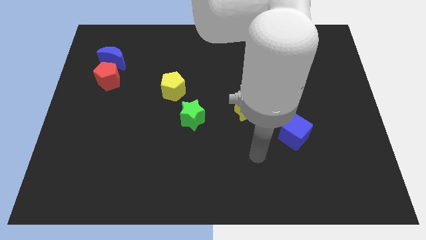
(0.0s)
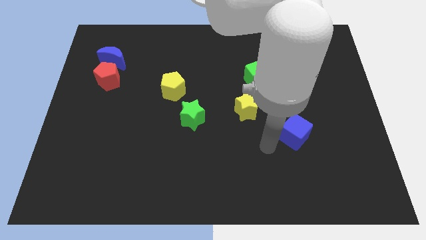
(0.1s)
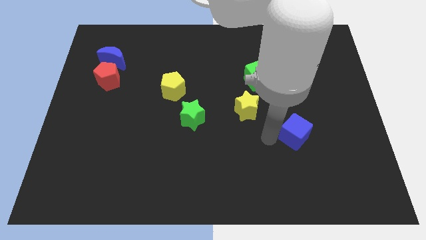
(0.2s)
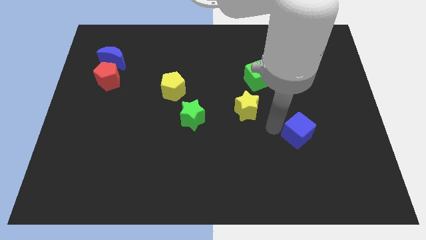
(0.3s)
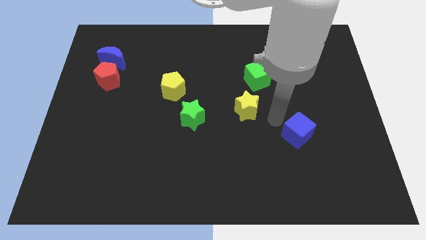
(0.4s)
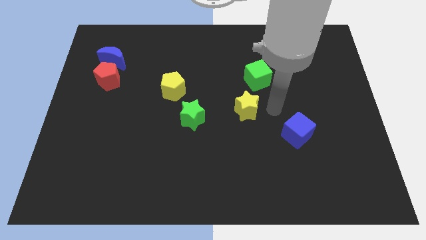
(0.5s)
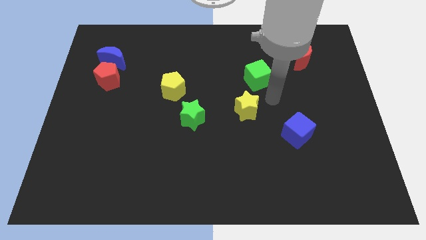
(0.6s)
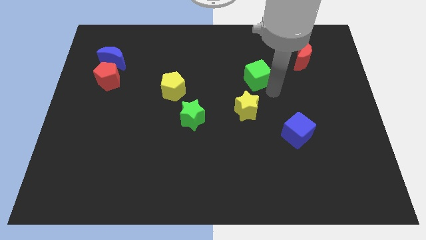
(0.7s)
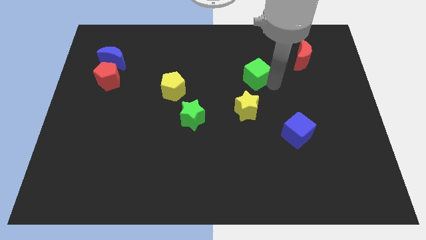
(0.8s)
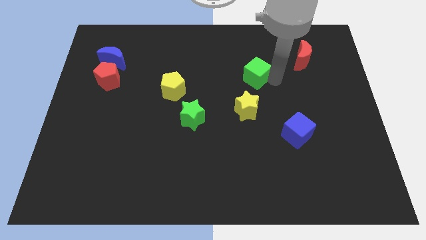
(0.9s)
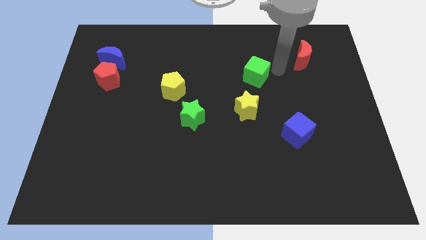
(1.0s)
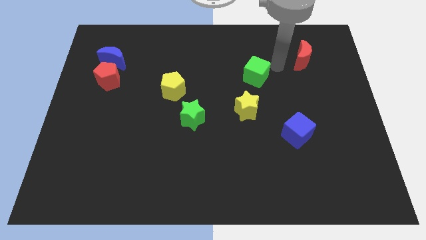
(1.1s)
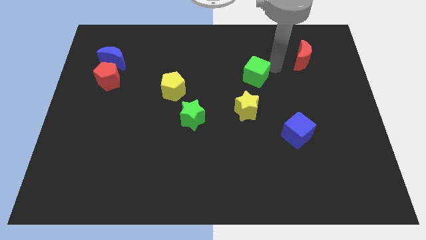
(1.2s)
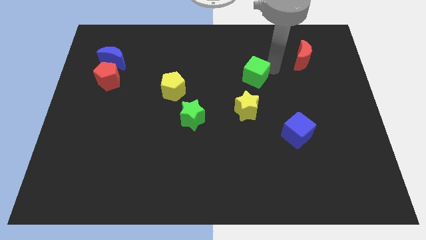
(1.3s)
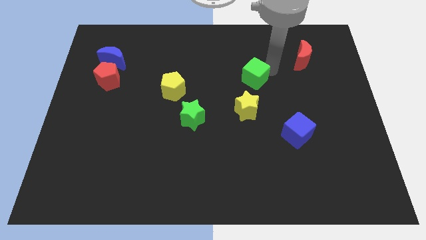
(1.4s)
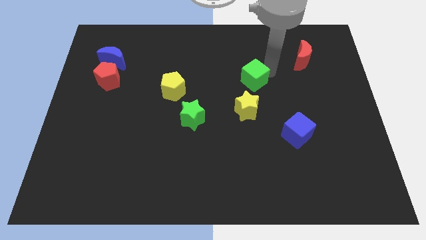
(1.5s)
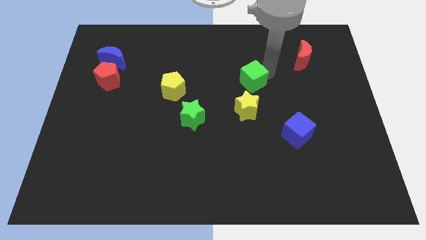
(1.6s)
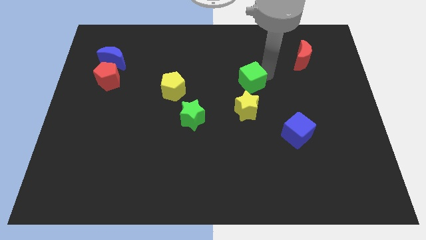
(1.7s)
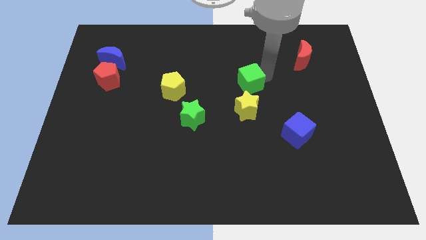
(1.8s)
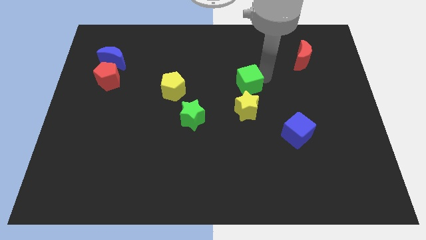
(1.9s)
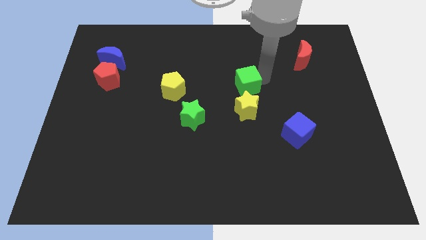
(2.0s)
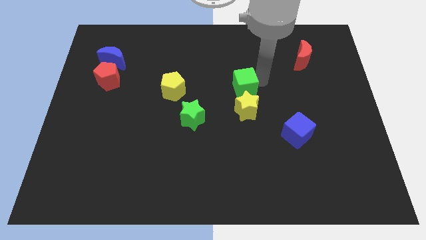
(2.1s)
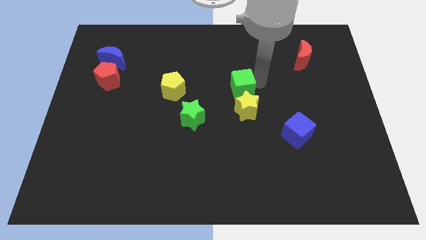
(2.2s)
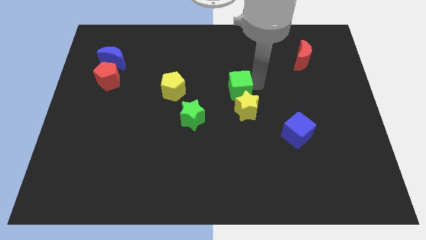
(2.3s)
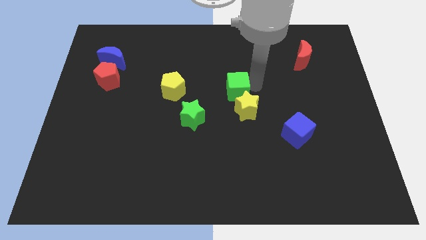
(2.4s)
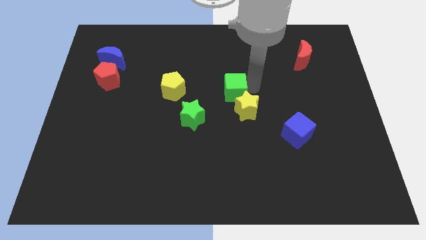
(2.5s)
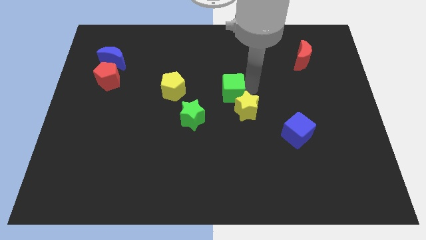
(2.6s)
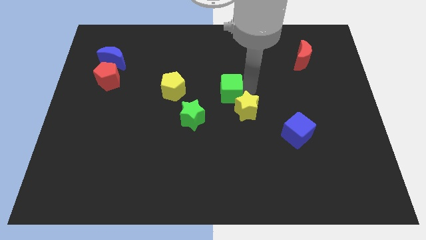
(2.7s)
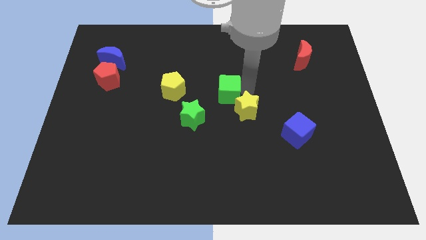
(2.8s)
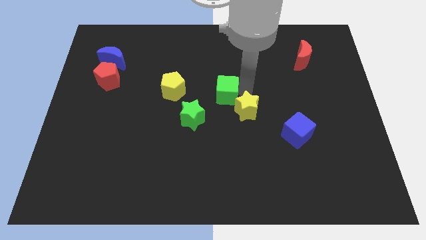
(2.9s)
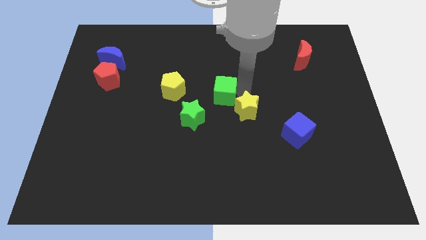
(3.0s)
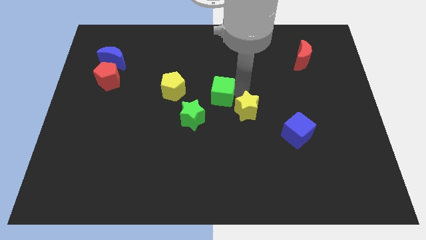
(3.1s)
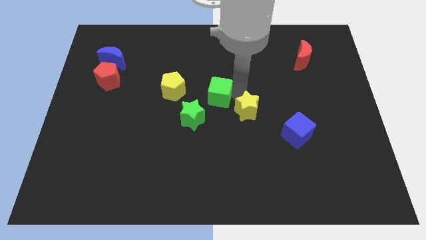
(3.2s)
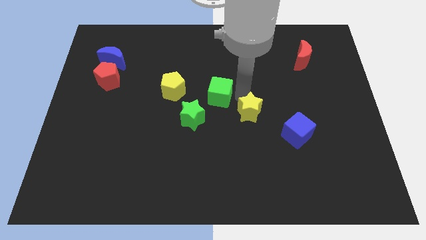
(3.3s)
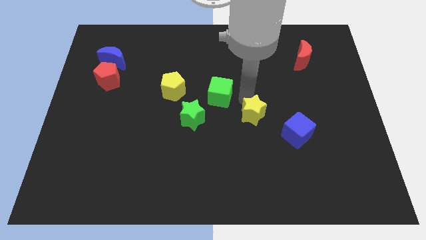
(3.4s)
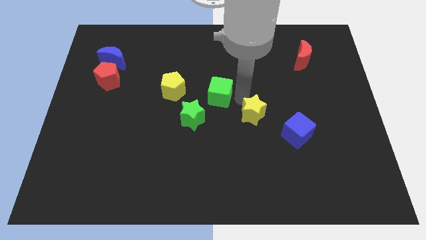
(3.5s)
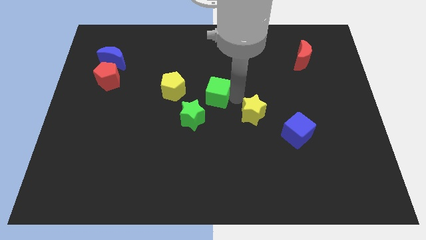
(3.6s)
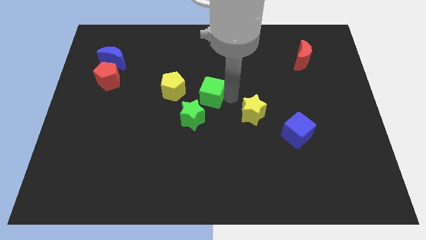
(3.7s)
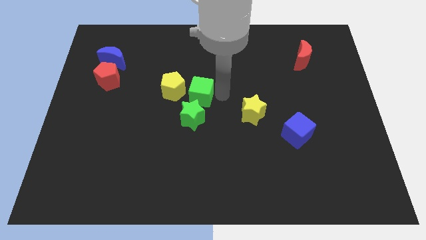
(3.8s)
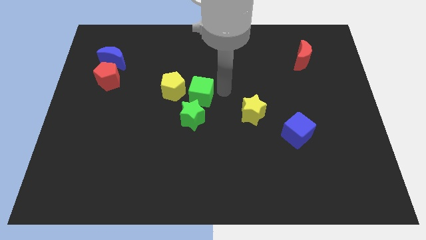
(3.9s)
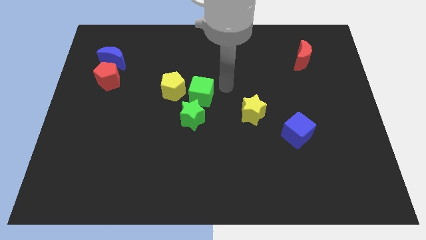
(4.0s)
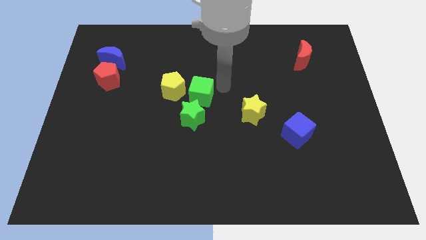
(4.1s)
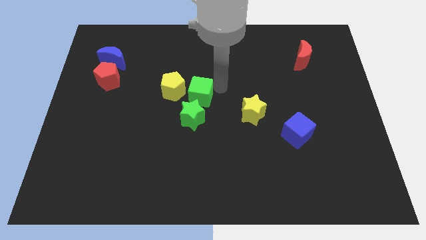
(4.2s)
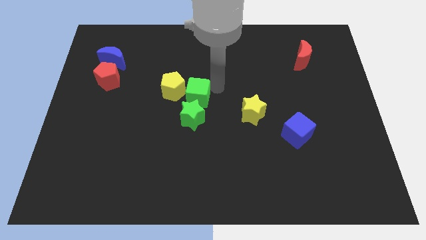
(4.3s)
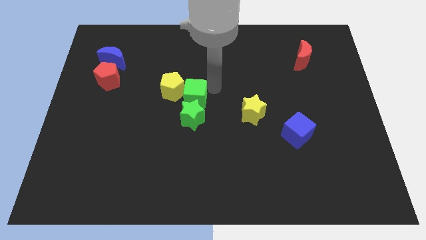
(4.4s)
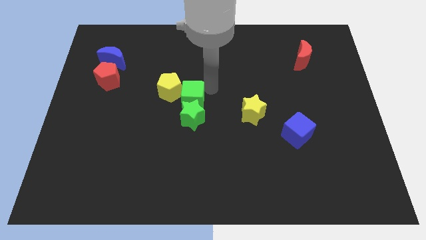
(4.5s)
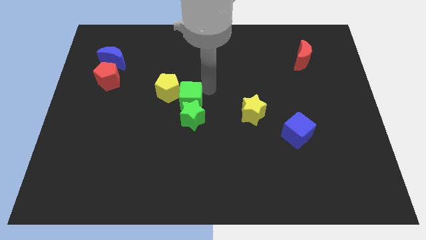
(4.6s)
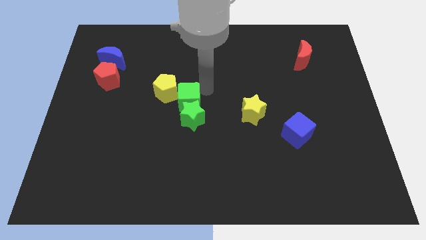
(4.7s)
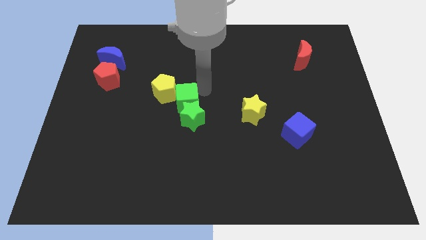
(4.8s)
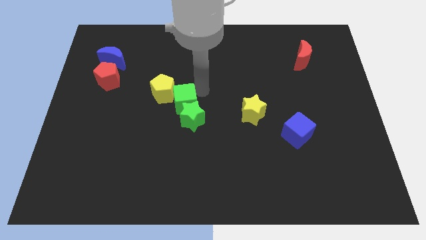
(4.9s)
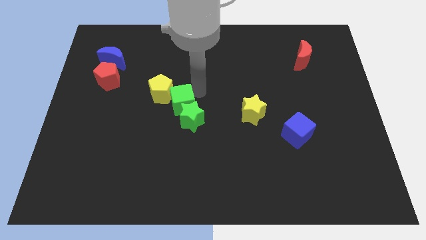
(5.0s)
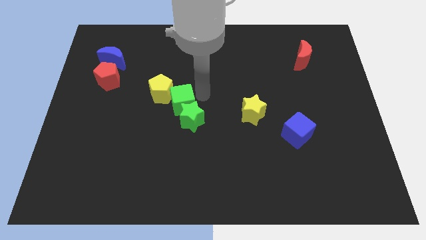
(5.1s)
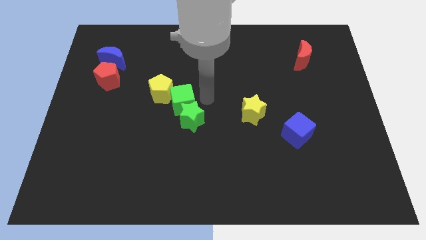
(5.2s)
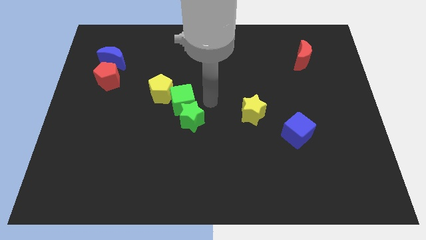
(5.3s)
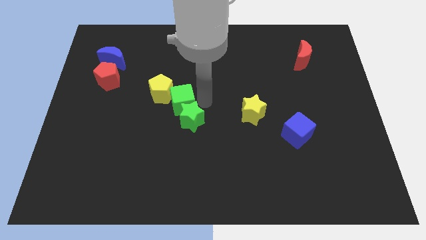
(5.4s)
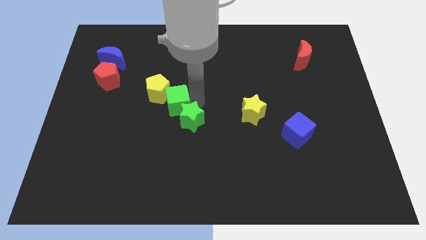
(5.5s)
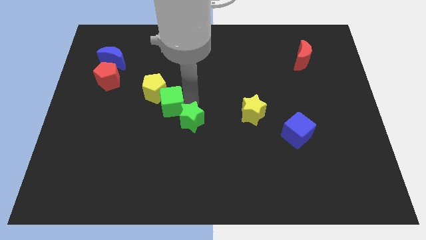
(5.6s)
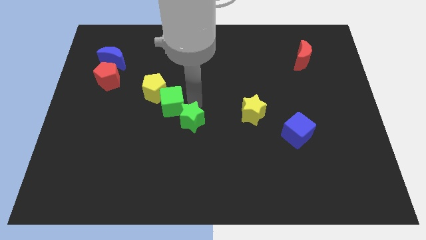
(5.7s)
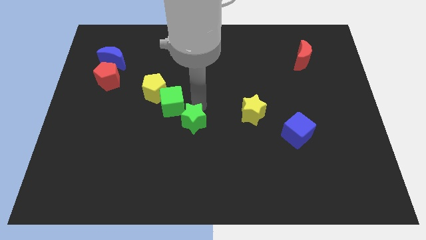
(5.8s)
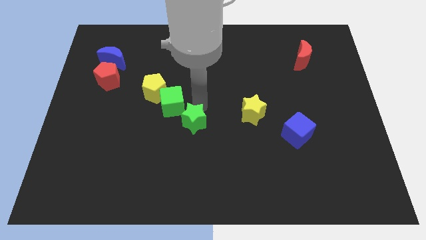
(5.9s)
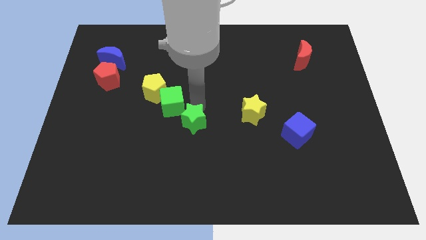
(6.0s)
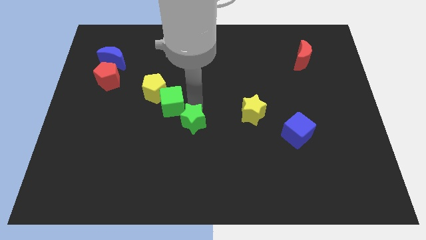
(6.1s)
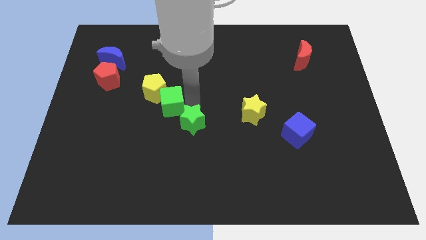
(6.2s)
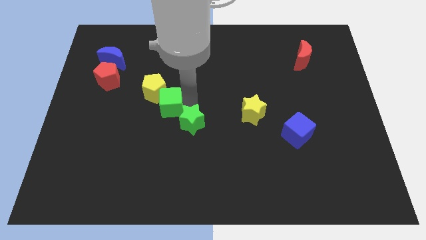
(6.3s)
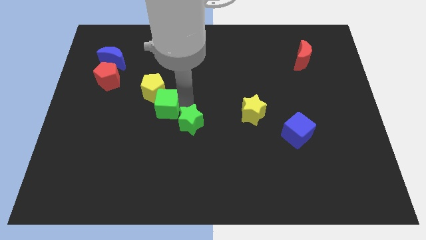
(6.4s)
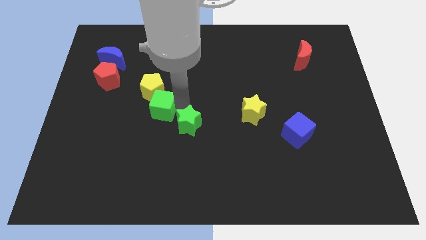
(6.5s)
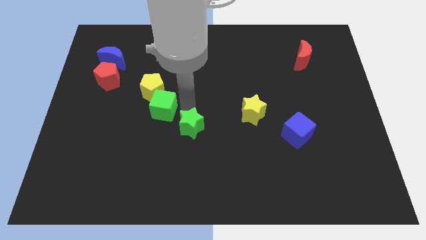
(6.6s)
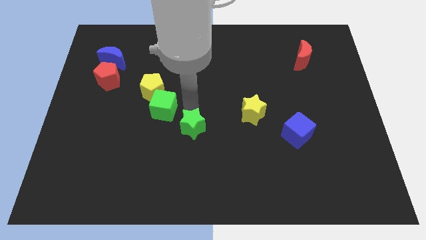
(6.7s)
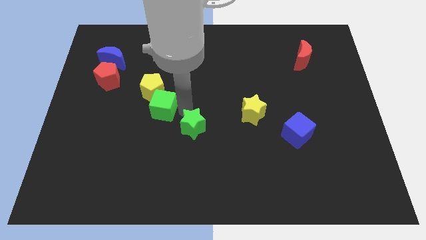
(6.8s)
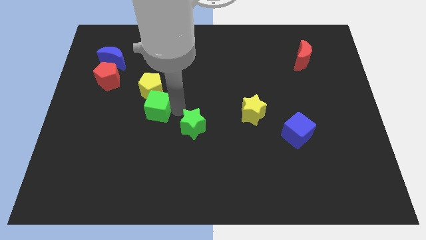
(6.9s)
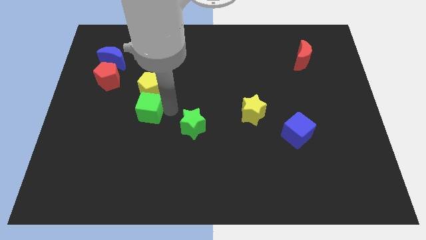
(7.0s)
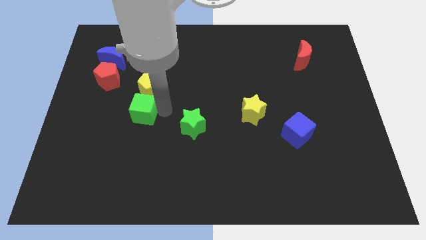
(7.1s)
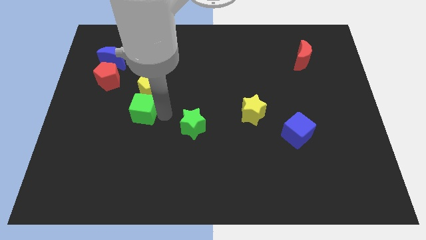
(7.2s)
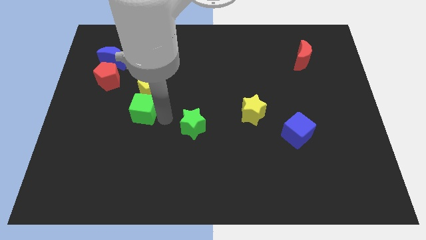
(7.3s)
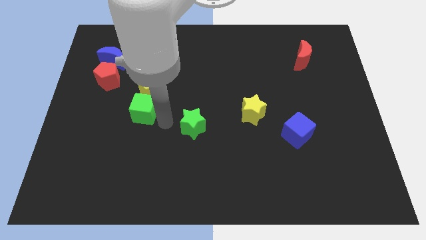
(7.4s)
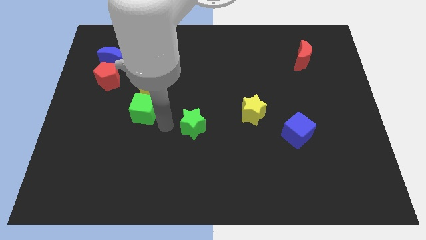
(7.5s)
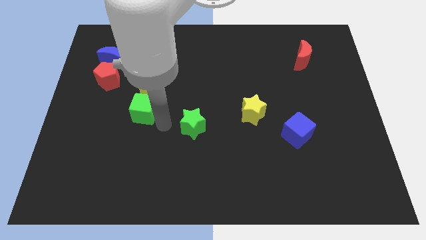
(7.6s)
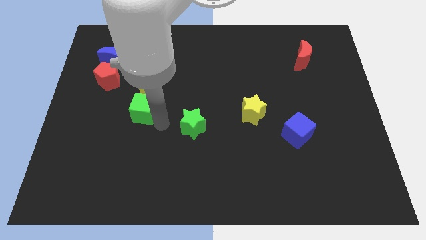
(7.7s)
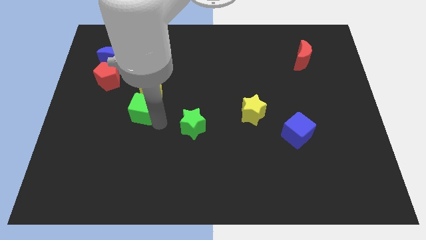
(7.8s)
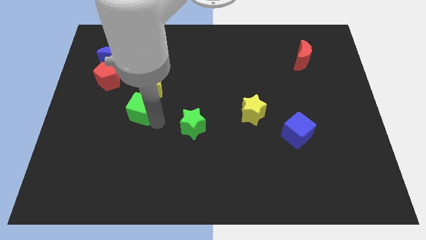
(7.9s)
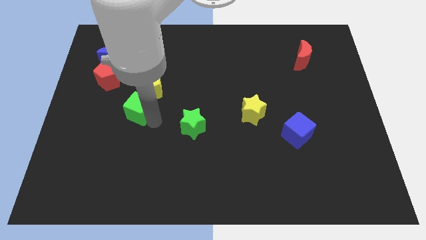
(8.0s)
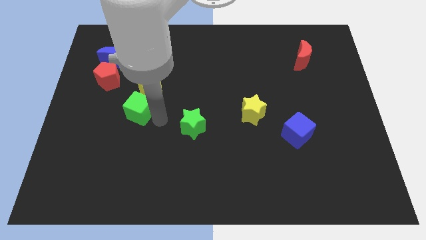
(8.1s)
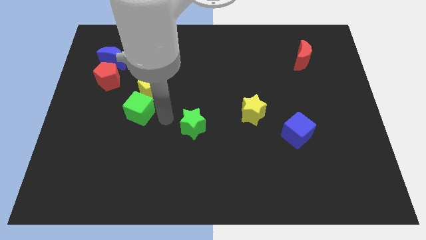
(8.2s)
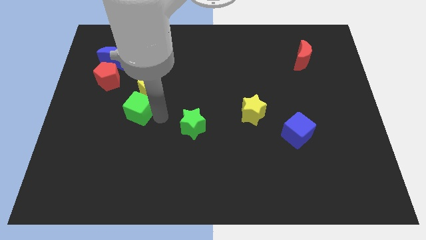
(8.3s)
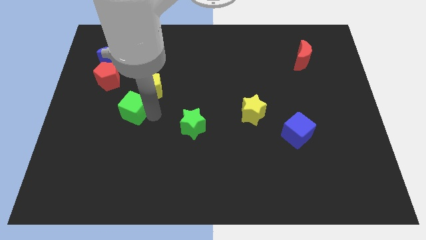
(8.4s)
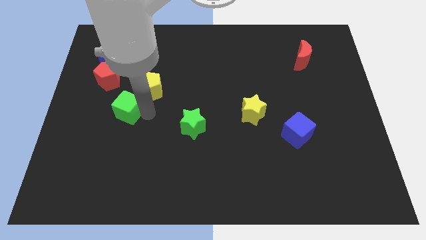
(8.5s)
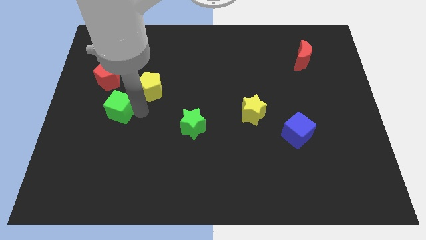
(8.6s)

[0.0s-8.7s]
slide the green cube to the bottom side of the red pentagon
